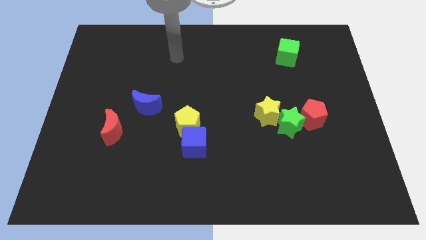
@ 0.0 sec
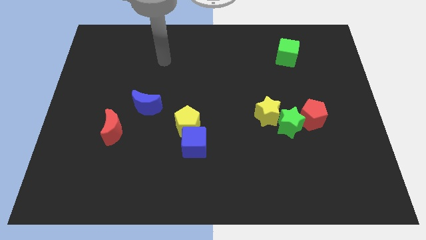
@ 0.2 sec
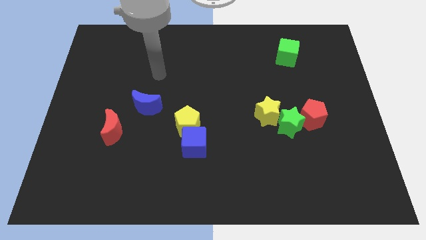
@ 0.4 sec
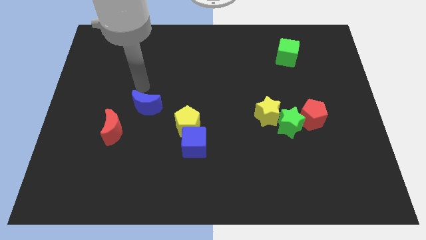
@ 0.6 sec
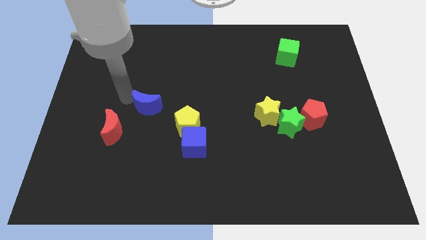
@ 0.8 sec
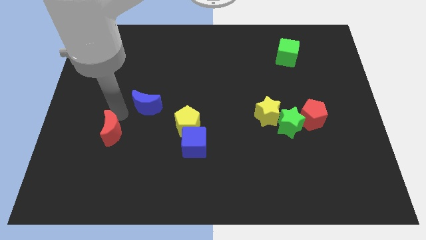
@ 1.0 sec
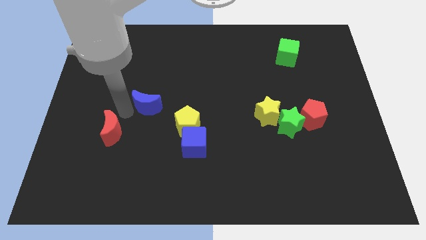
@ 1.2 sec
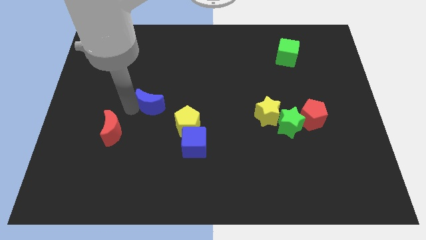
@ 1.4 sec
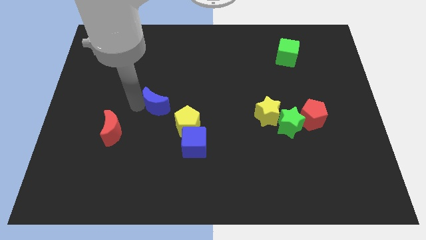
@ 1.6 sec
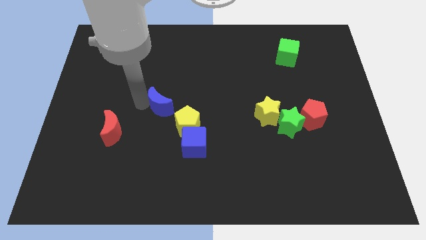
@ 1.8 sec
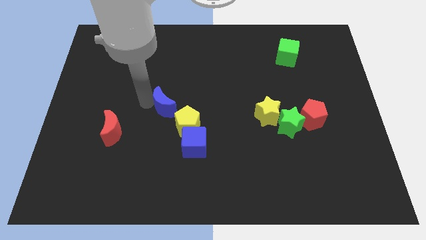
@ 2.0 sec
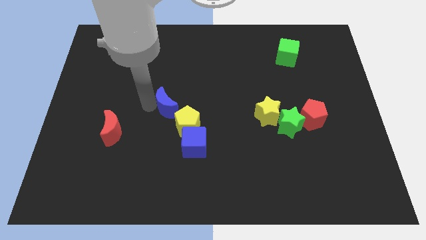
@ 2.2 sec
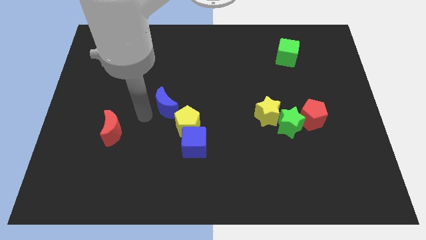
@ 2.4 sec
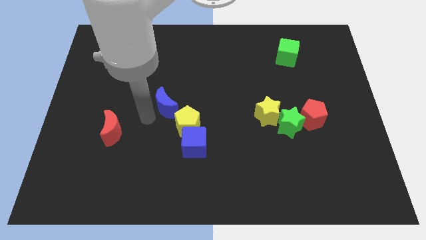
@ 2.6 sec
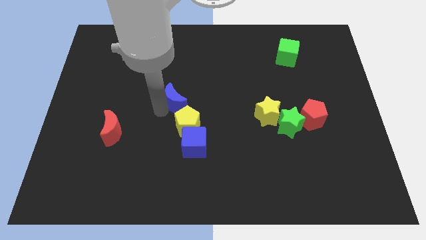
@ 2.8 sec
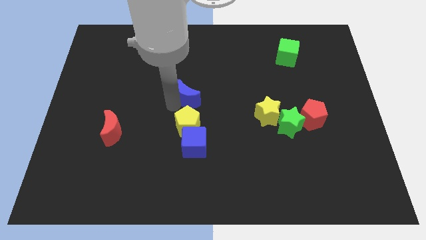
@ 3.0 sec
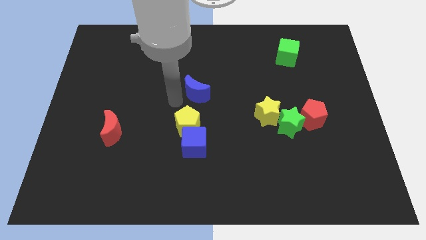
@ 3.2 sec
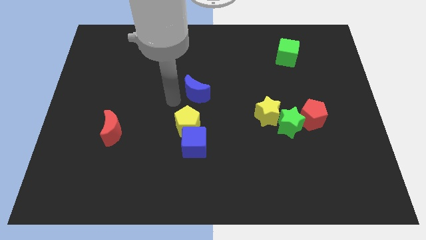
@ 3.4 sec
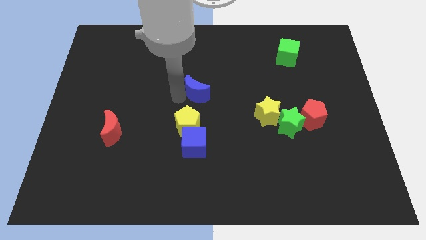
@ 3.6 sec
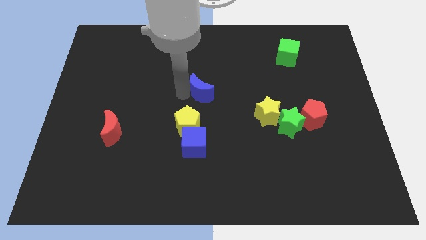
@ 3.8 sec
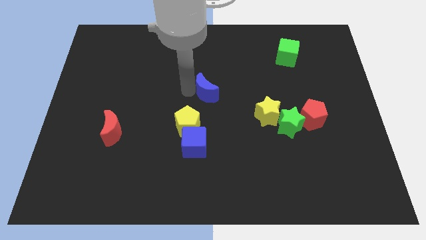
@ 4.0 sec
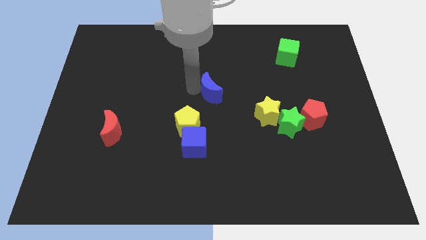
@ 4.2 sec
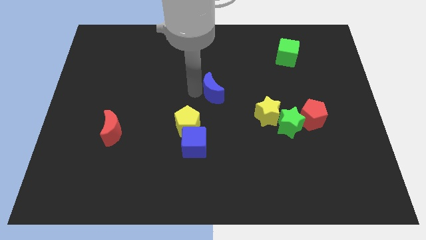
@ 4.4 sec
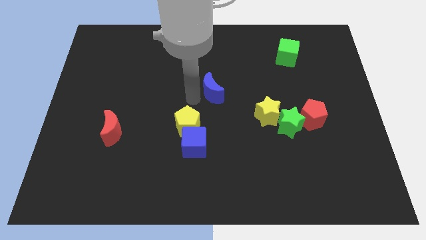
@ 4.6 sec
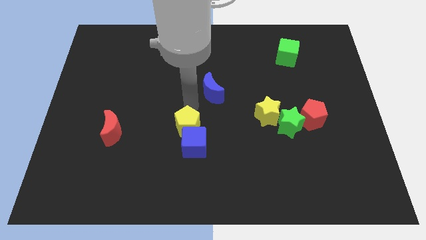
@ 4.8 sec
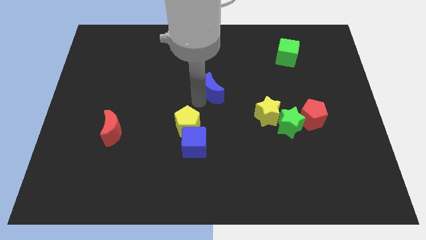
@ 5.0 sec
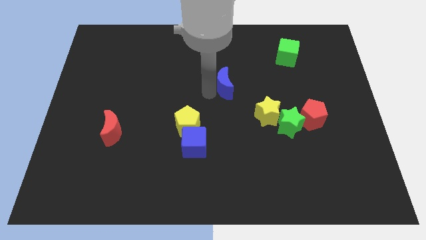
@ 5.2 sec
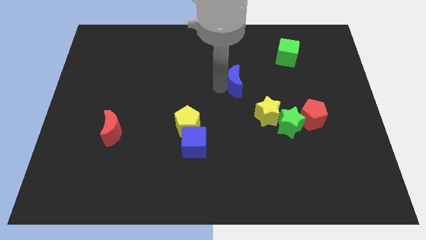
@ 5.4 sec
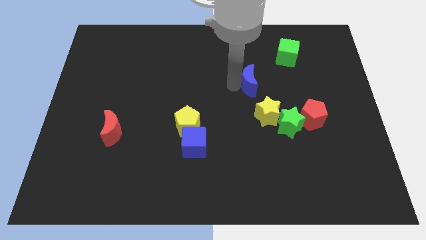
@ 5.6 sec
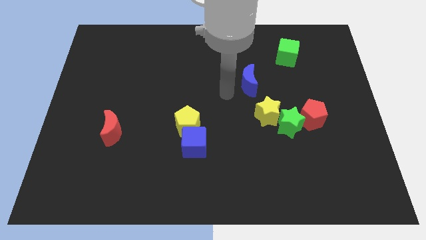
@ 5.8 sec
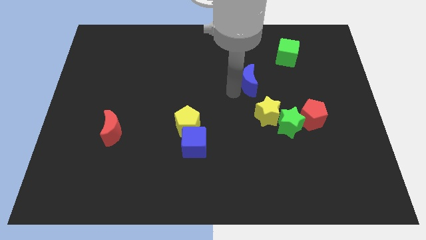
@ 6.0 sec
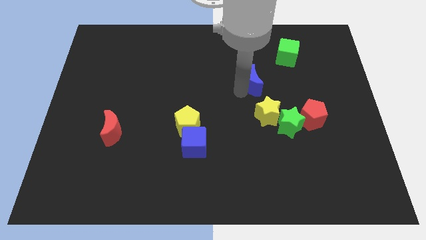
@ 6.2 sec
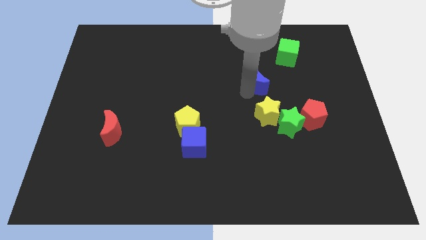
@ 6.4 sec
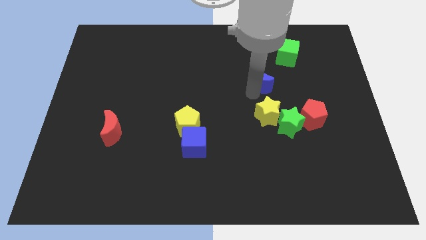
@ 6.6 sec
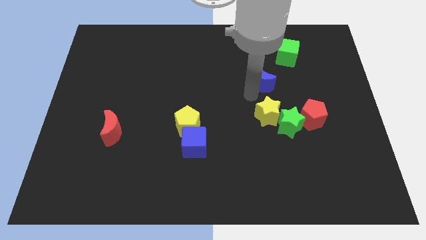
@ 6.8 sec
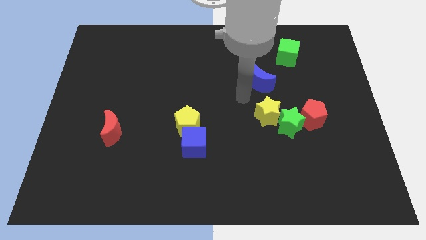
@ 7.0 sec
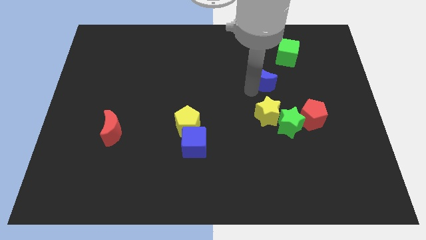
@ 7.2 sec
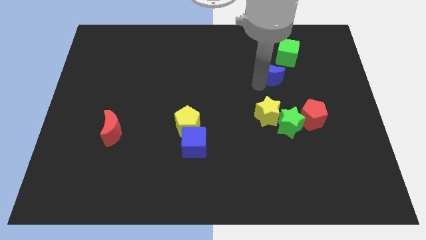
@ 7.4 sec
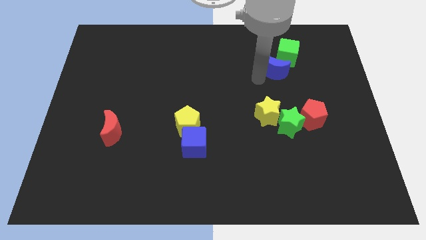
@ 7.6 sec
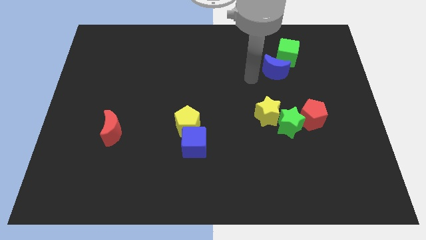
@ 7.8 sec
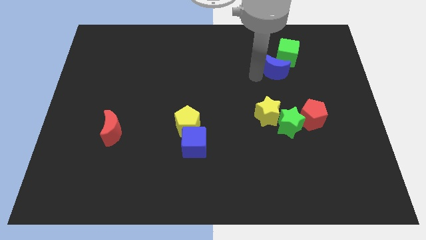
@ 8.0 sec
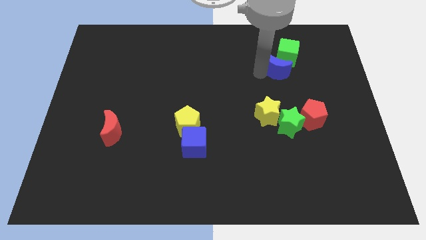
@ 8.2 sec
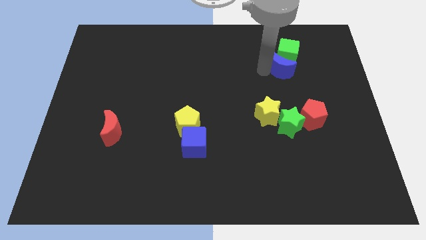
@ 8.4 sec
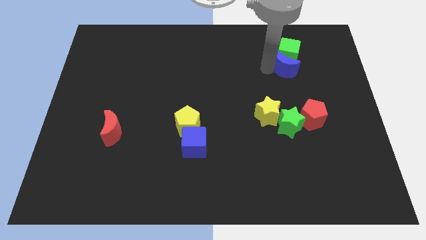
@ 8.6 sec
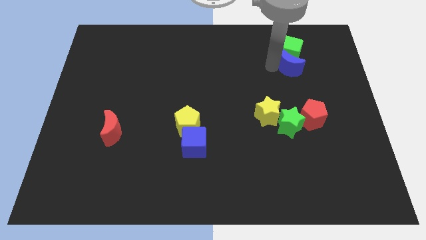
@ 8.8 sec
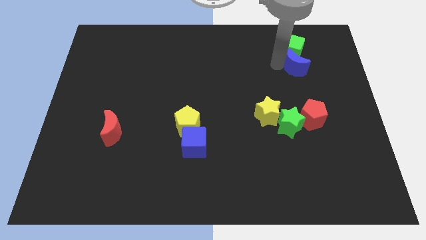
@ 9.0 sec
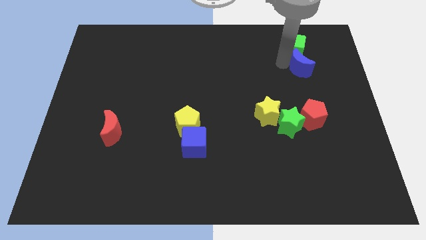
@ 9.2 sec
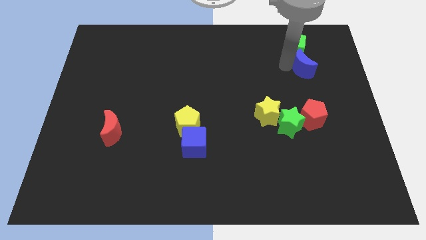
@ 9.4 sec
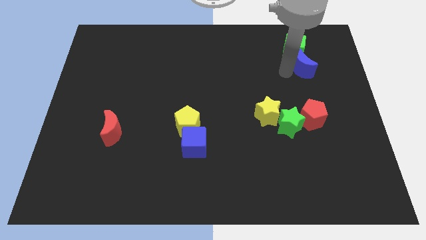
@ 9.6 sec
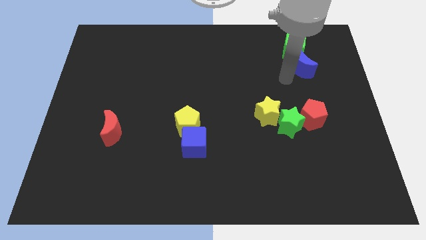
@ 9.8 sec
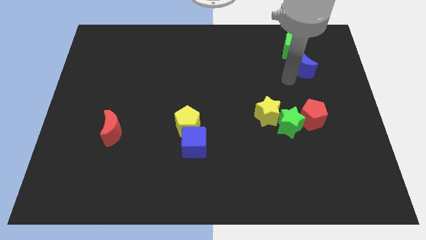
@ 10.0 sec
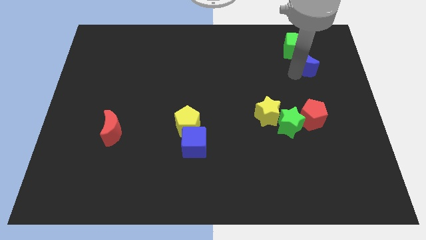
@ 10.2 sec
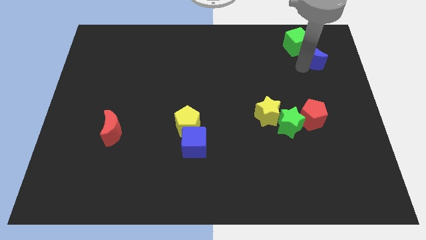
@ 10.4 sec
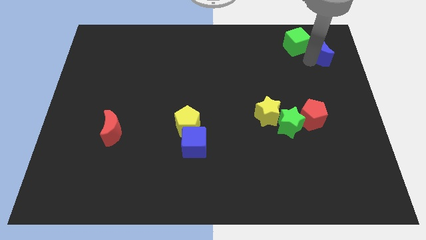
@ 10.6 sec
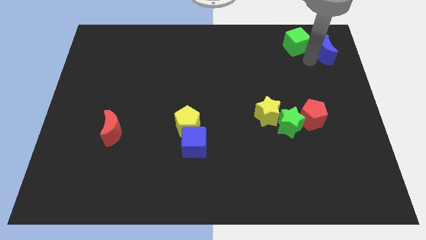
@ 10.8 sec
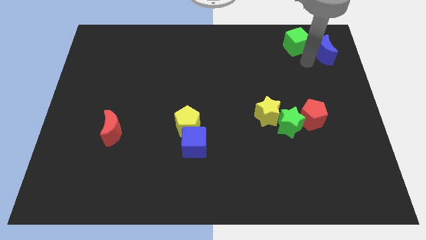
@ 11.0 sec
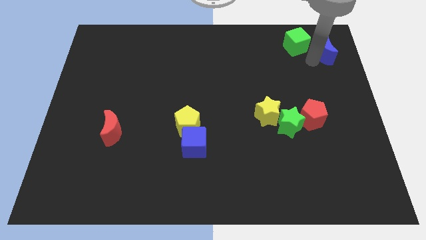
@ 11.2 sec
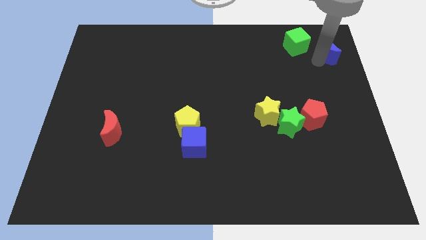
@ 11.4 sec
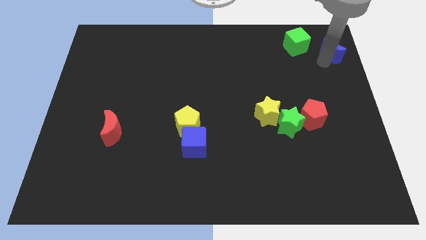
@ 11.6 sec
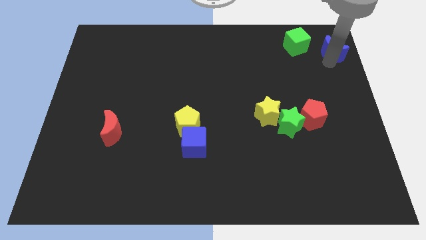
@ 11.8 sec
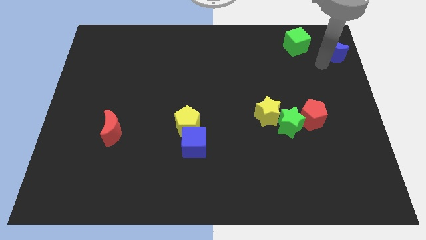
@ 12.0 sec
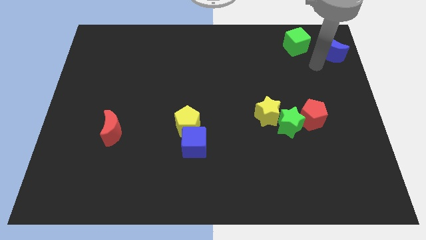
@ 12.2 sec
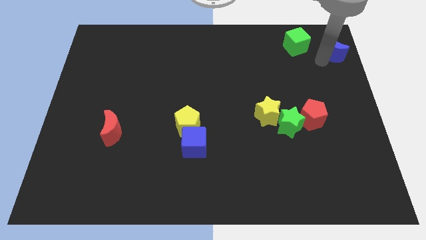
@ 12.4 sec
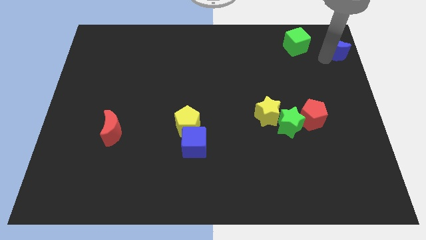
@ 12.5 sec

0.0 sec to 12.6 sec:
put the blue moon to the top right

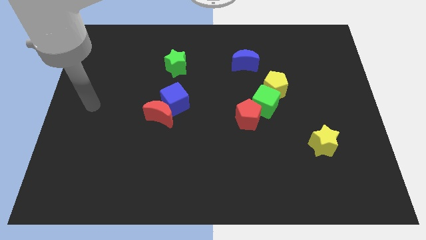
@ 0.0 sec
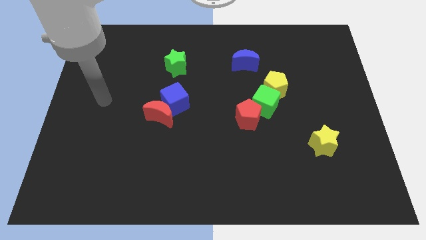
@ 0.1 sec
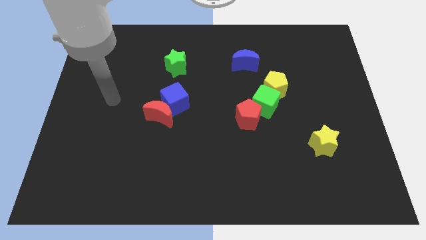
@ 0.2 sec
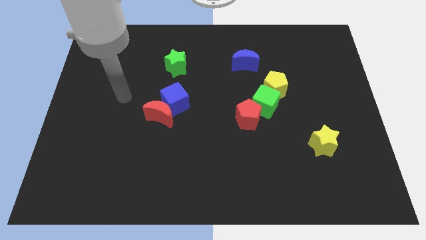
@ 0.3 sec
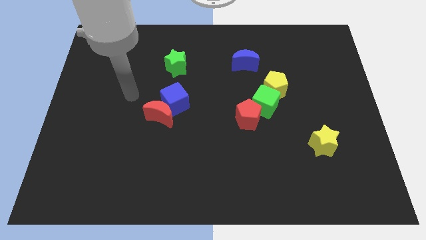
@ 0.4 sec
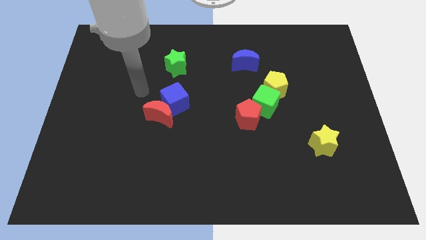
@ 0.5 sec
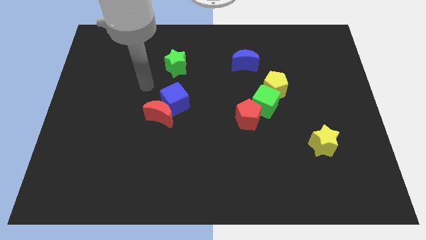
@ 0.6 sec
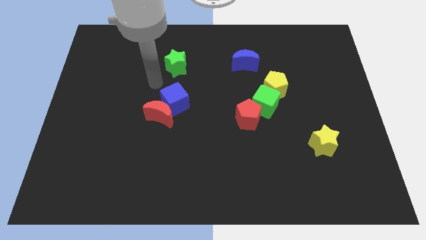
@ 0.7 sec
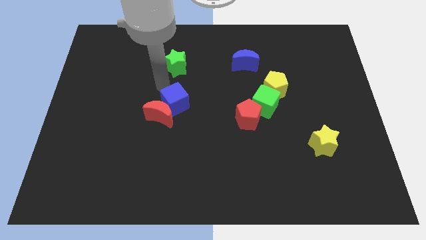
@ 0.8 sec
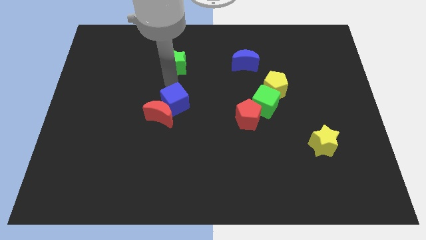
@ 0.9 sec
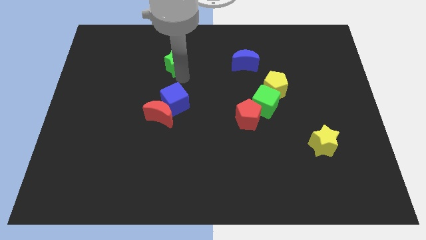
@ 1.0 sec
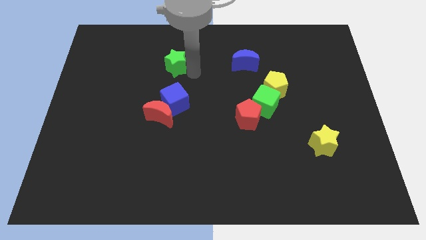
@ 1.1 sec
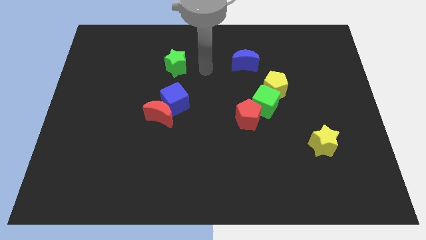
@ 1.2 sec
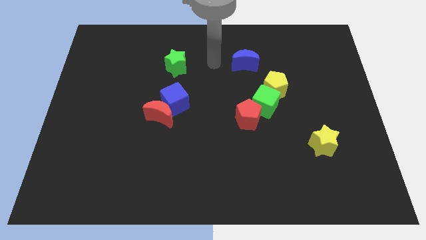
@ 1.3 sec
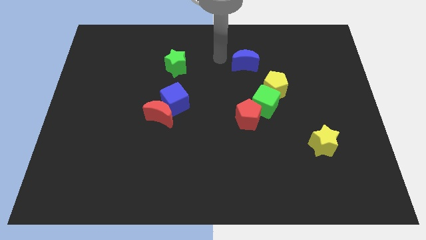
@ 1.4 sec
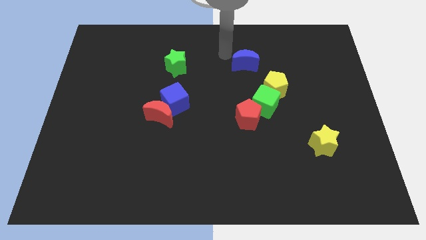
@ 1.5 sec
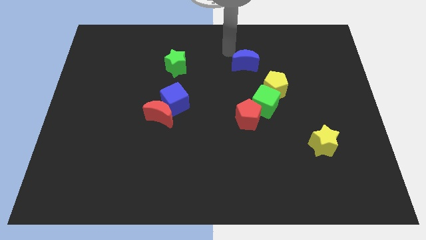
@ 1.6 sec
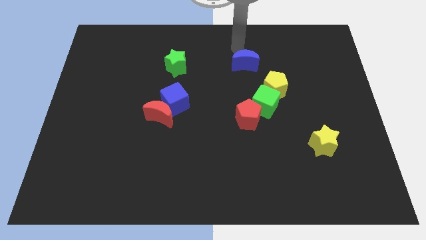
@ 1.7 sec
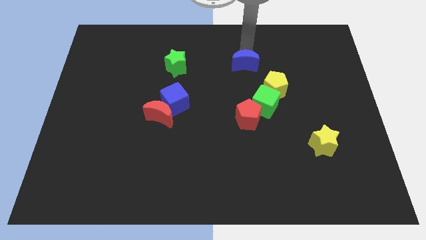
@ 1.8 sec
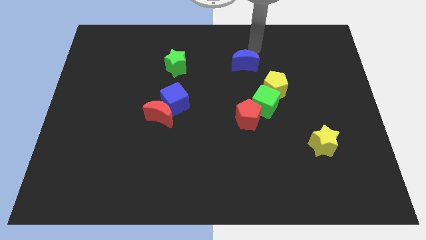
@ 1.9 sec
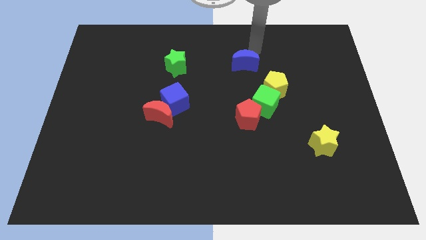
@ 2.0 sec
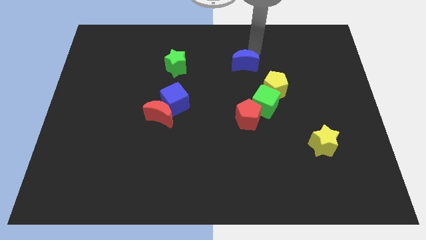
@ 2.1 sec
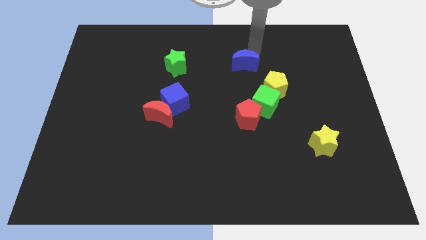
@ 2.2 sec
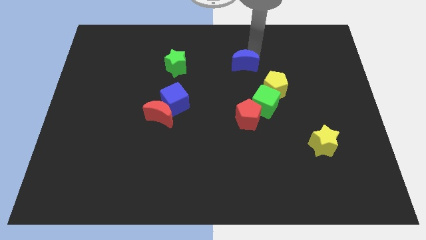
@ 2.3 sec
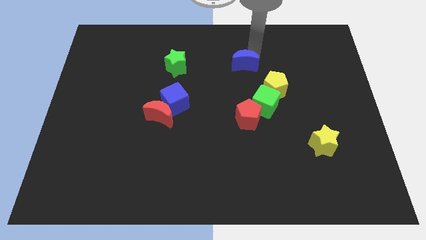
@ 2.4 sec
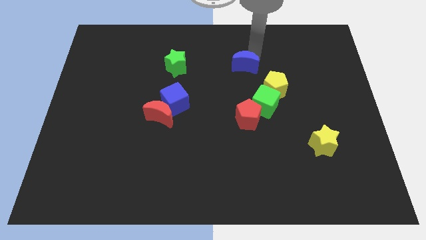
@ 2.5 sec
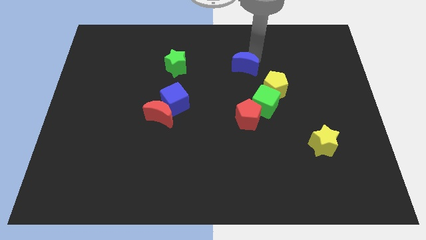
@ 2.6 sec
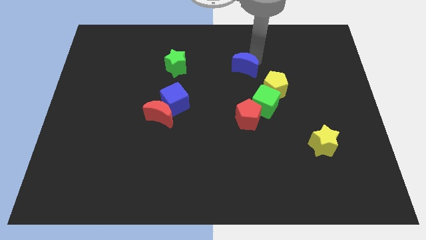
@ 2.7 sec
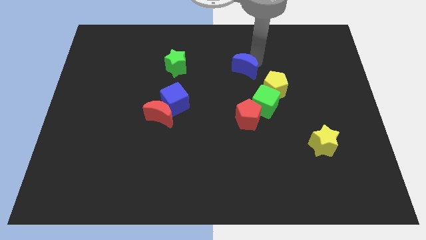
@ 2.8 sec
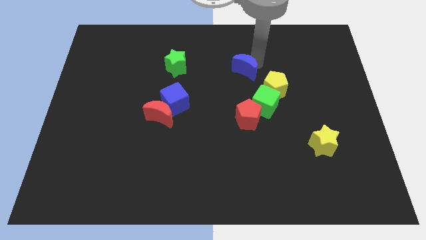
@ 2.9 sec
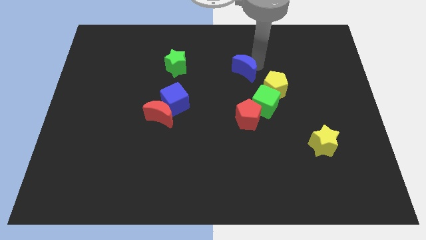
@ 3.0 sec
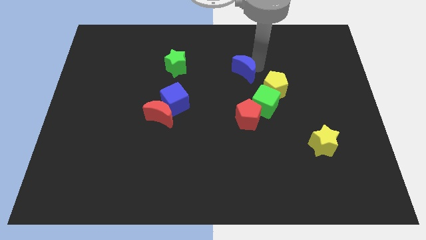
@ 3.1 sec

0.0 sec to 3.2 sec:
push the blue moon to the middle of the board
